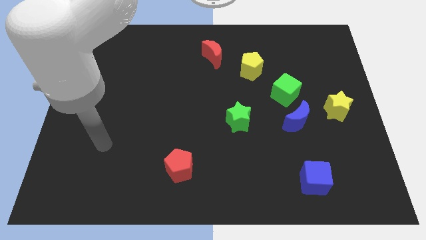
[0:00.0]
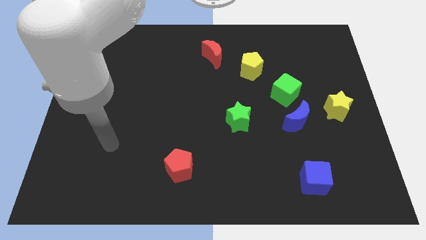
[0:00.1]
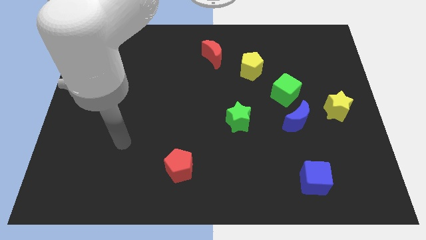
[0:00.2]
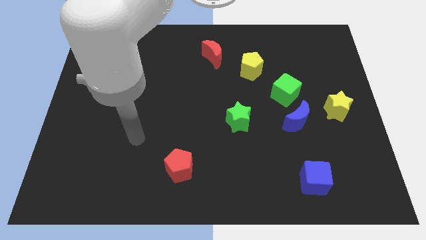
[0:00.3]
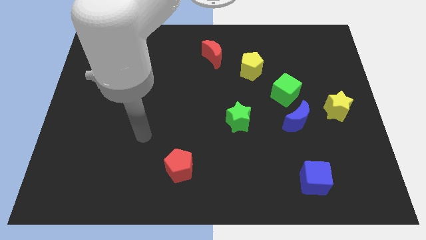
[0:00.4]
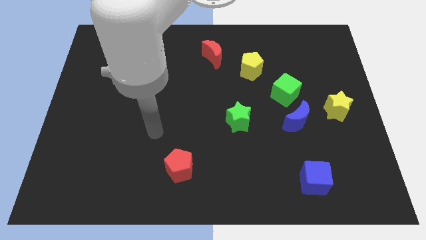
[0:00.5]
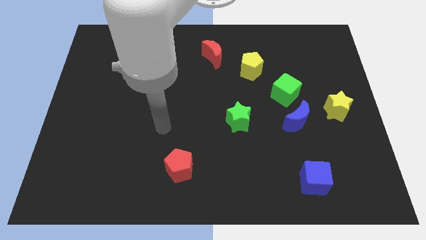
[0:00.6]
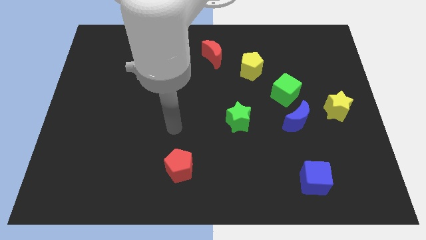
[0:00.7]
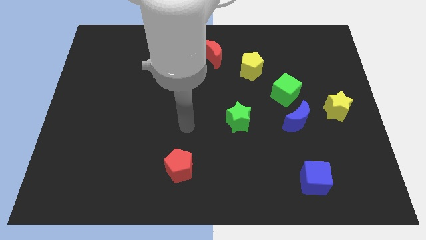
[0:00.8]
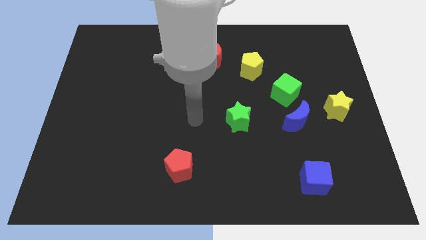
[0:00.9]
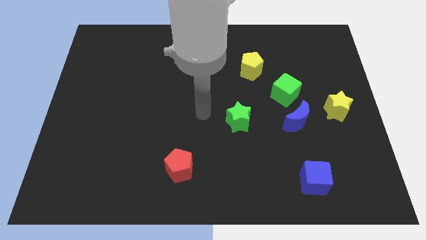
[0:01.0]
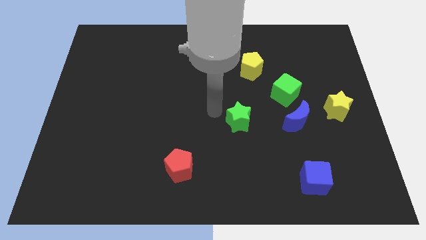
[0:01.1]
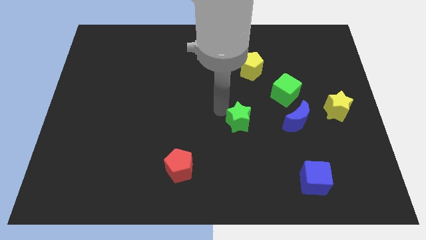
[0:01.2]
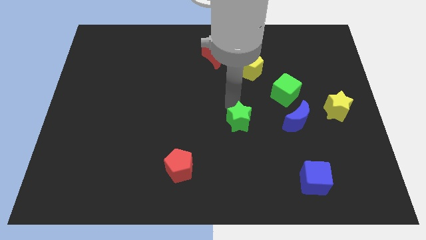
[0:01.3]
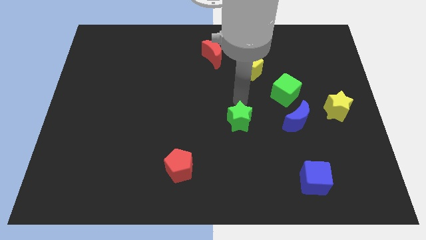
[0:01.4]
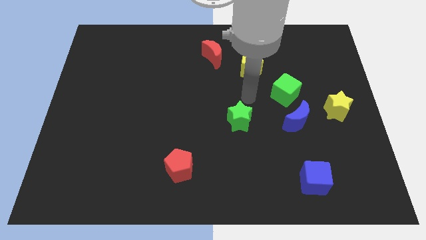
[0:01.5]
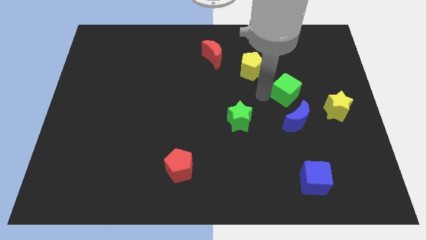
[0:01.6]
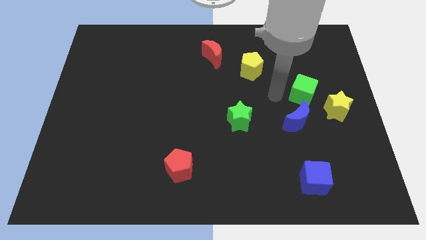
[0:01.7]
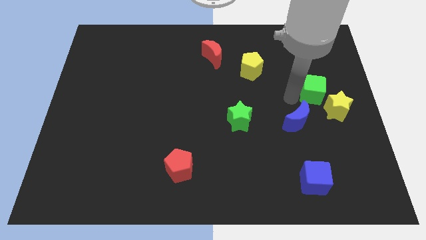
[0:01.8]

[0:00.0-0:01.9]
pull the blue moon apart from the green cube

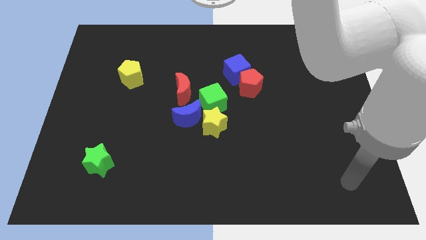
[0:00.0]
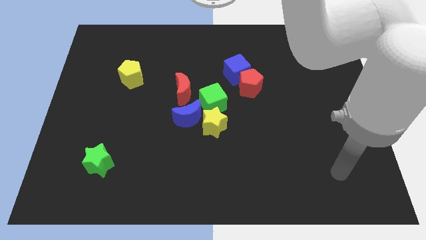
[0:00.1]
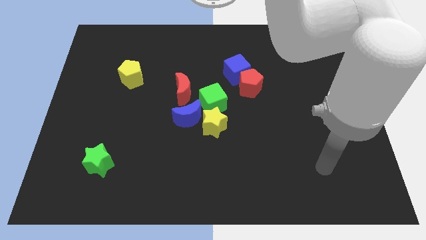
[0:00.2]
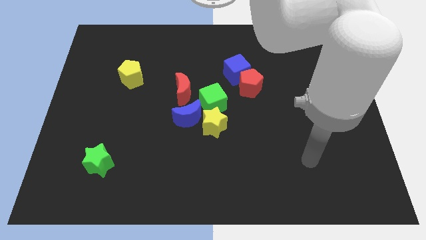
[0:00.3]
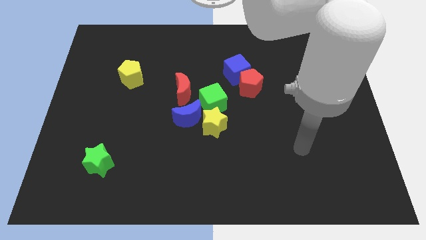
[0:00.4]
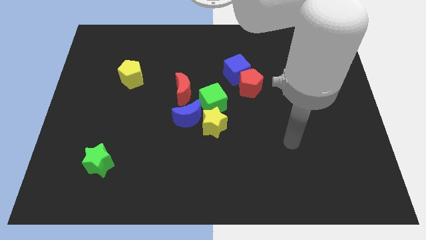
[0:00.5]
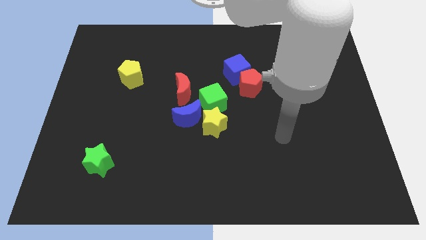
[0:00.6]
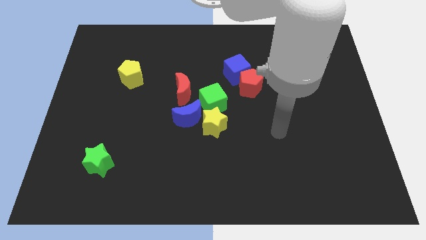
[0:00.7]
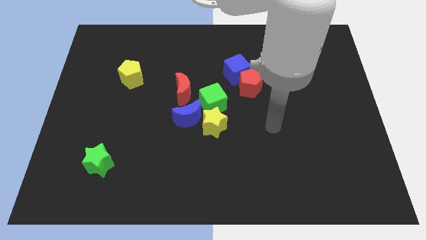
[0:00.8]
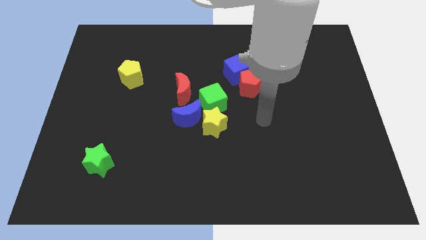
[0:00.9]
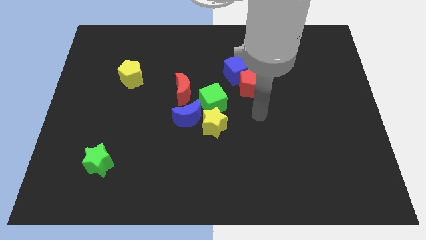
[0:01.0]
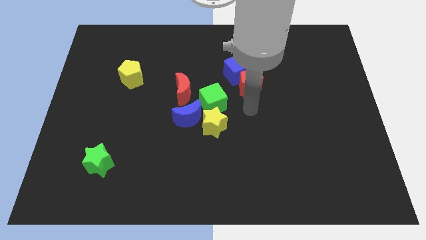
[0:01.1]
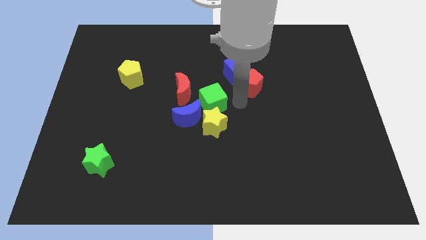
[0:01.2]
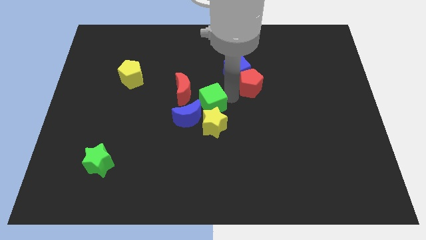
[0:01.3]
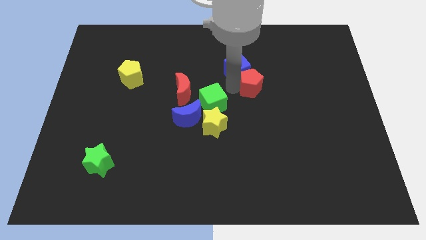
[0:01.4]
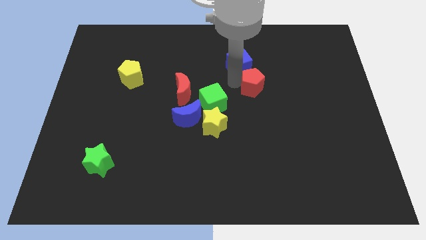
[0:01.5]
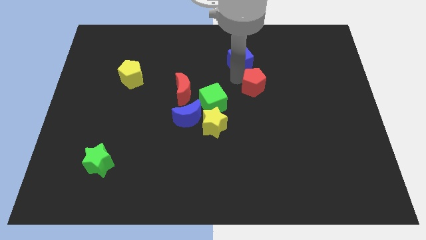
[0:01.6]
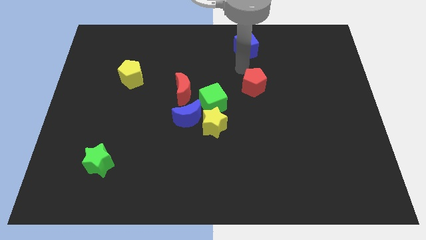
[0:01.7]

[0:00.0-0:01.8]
separate the red pentagon from the blue cube

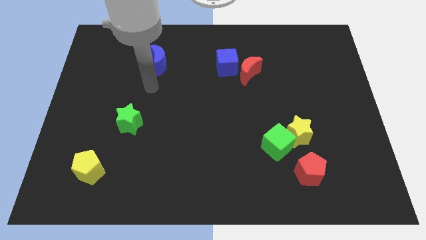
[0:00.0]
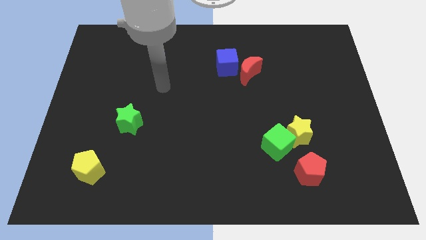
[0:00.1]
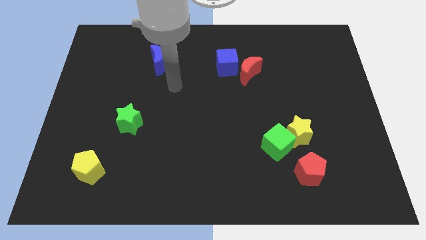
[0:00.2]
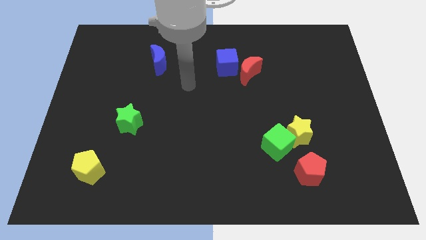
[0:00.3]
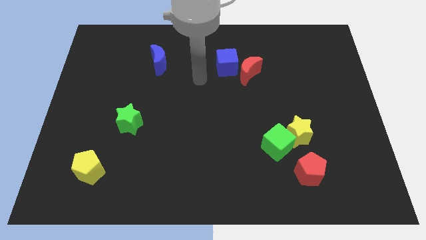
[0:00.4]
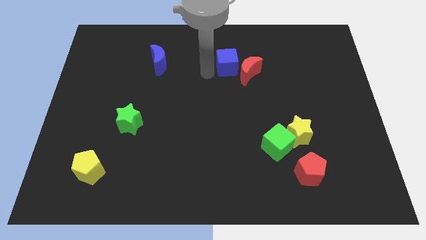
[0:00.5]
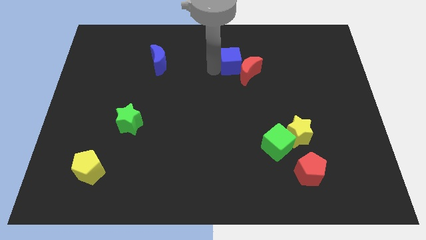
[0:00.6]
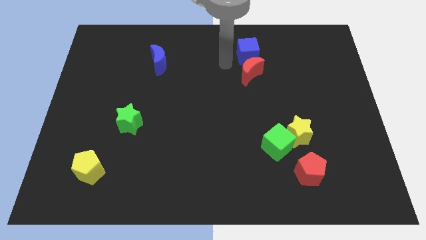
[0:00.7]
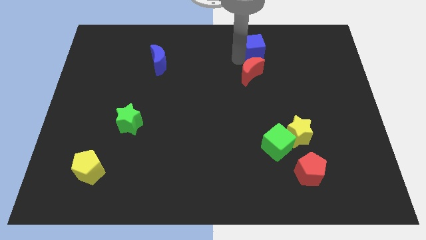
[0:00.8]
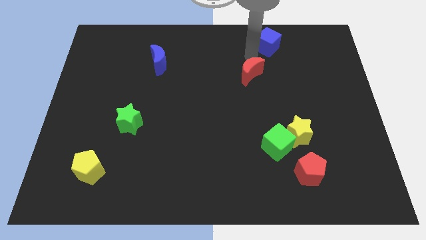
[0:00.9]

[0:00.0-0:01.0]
separate the red moon from the blue cube

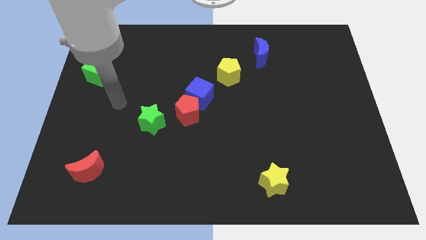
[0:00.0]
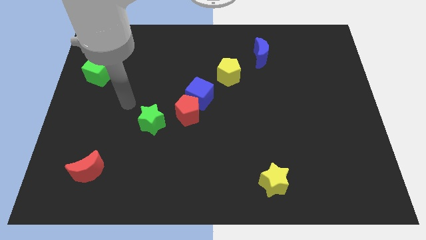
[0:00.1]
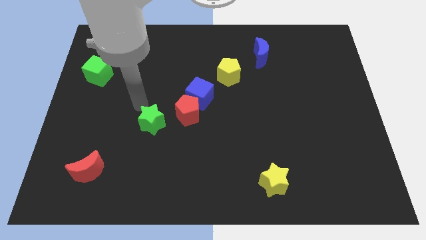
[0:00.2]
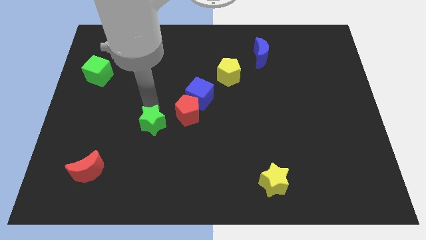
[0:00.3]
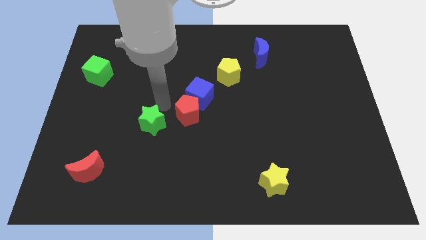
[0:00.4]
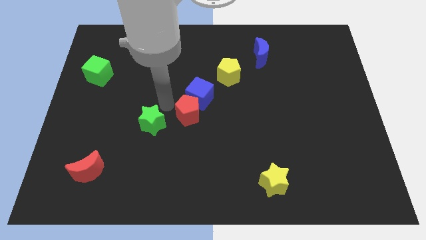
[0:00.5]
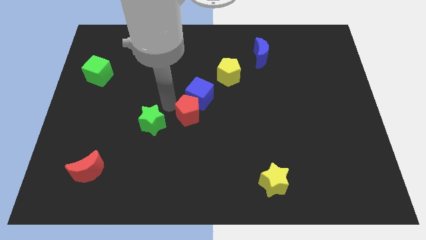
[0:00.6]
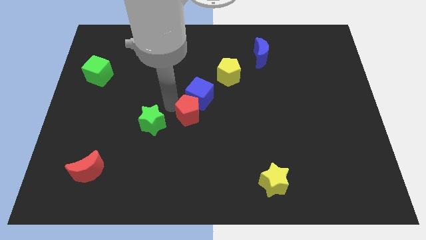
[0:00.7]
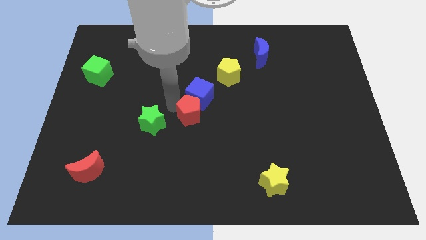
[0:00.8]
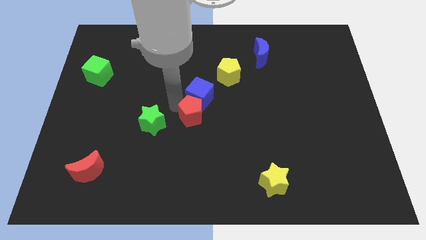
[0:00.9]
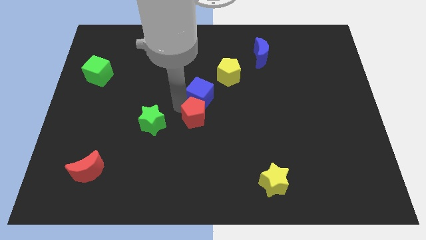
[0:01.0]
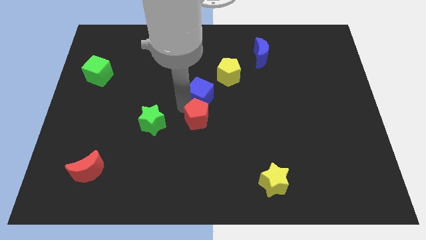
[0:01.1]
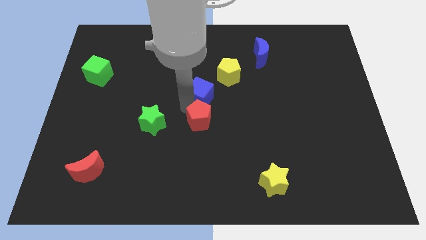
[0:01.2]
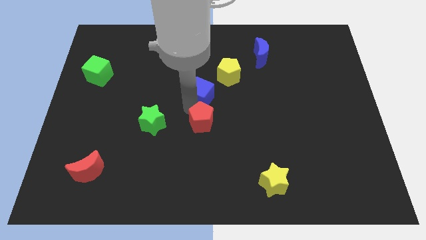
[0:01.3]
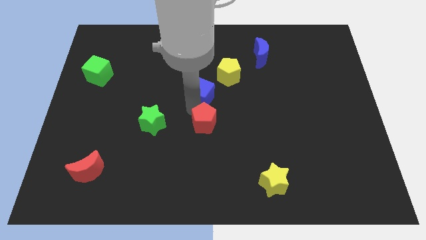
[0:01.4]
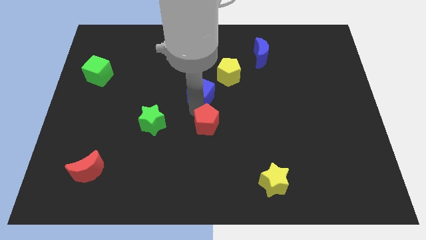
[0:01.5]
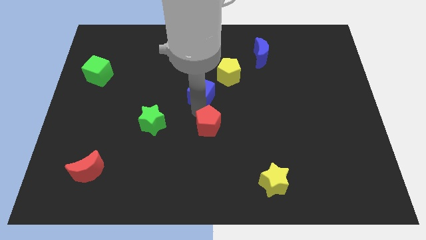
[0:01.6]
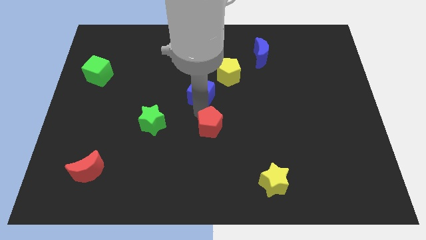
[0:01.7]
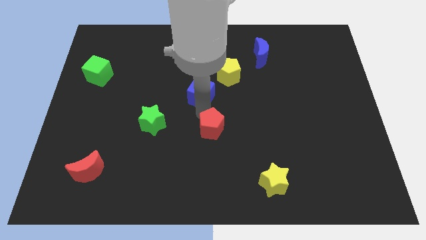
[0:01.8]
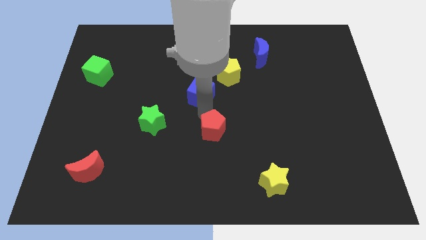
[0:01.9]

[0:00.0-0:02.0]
pull the red pentagon apart from the blue cube and green star

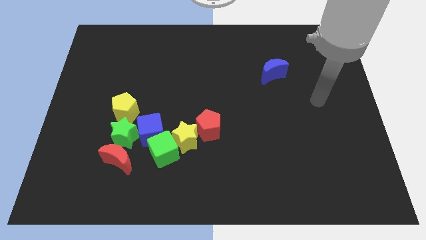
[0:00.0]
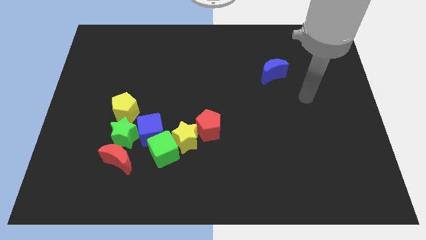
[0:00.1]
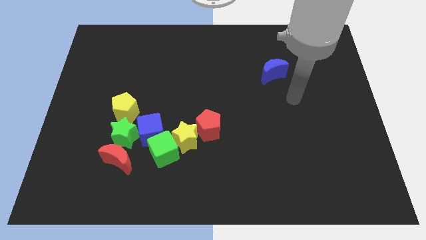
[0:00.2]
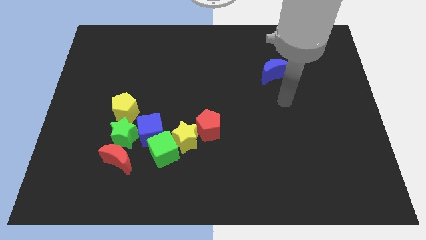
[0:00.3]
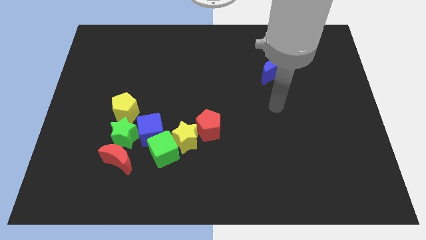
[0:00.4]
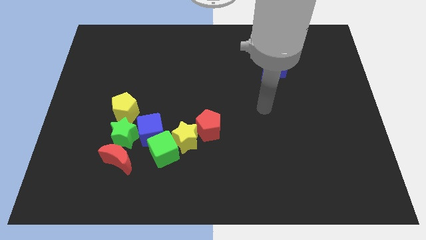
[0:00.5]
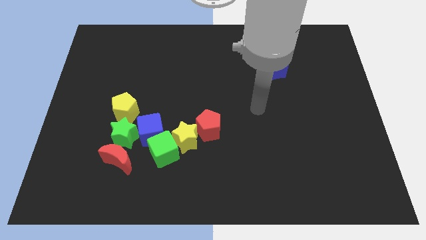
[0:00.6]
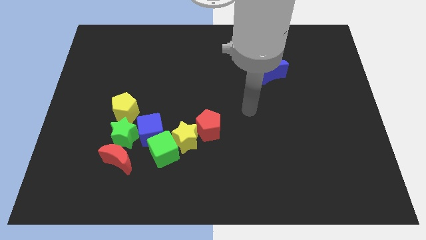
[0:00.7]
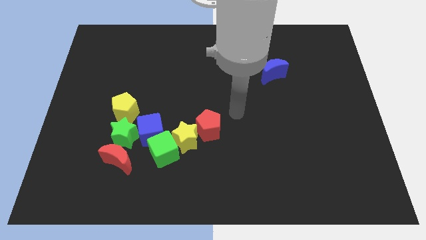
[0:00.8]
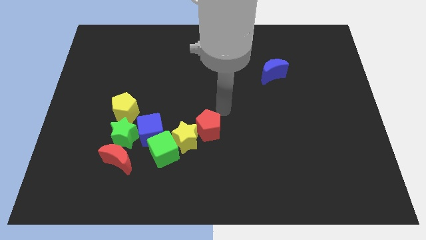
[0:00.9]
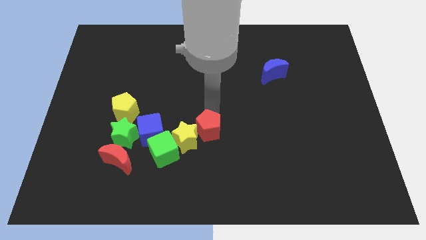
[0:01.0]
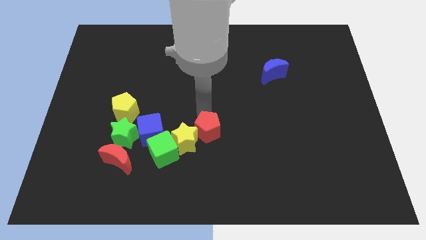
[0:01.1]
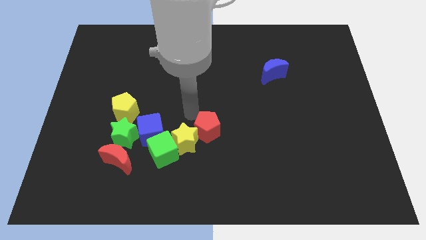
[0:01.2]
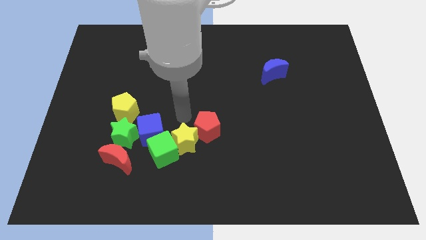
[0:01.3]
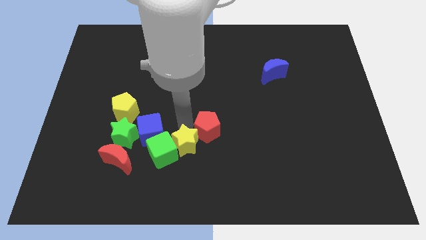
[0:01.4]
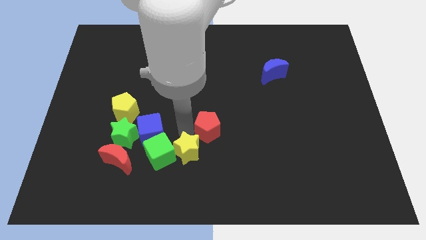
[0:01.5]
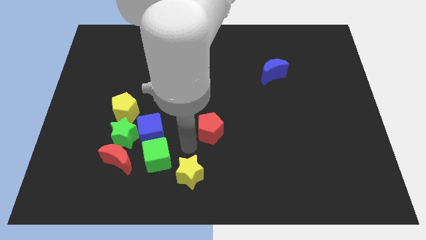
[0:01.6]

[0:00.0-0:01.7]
pull the red pentagon apart from the yellow star

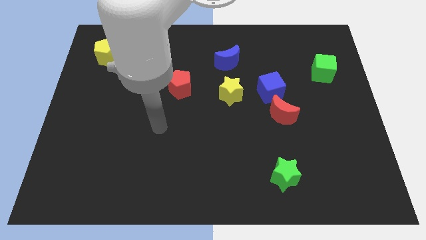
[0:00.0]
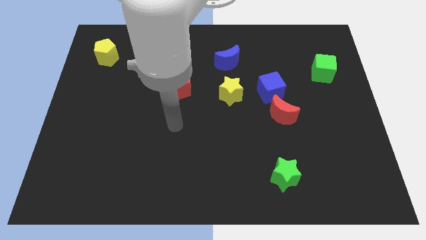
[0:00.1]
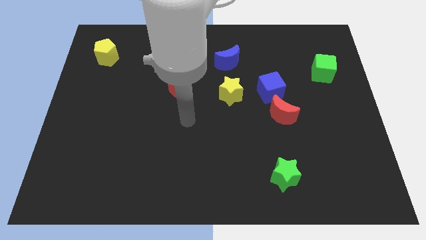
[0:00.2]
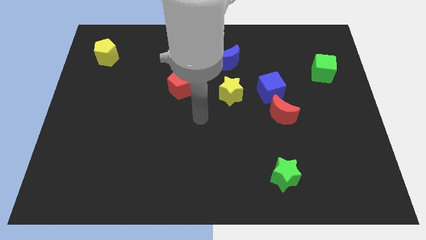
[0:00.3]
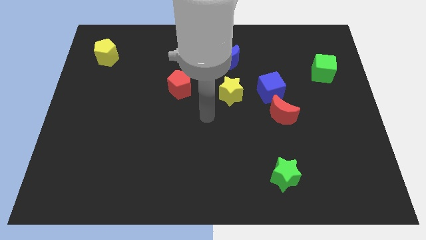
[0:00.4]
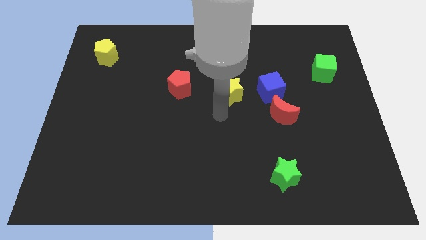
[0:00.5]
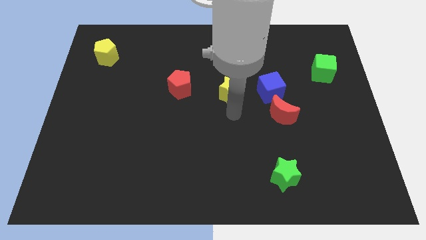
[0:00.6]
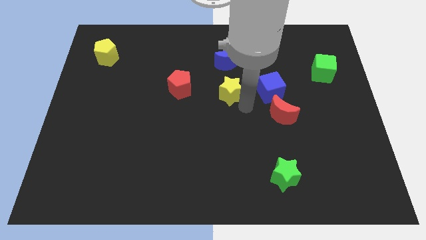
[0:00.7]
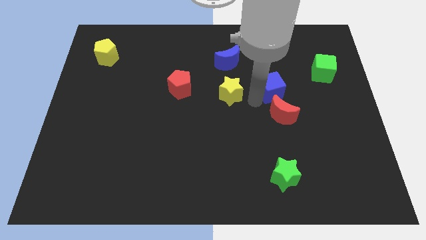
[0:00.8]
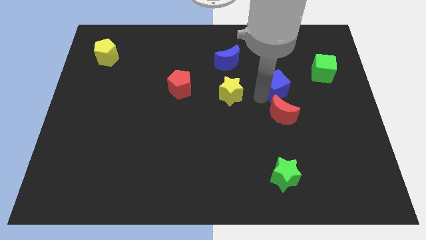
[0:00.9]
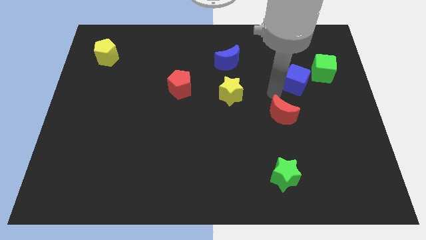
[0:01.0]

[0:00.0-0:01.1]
pull the red moon apart from the blue cube

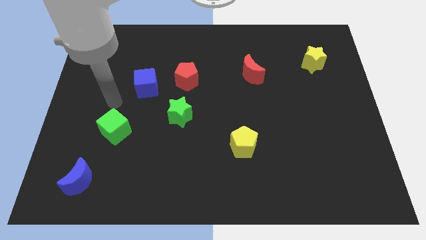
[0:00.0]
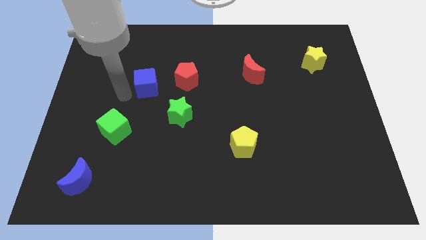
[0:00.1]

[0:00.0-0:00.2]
pull the red pentagon apart from the blue cube
